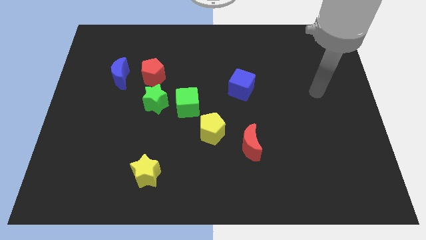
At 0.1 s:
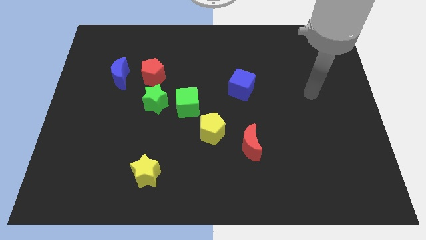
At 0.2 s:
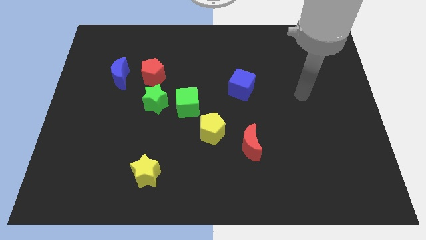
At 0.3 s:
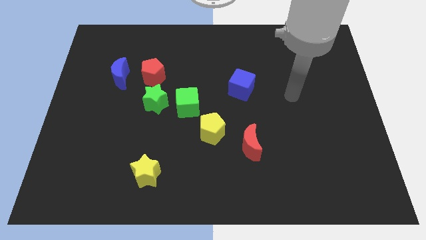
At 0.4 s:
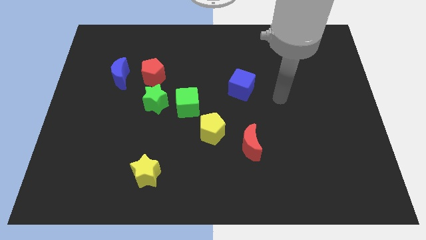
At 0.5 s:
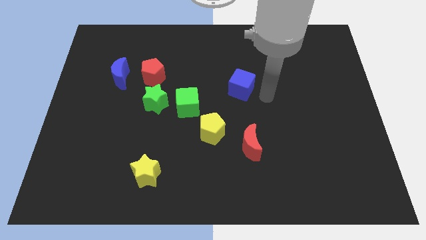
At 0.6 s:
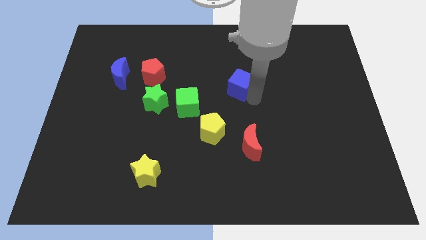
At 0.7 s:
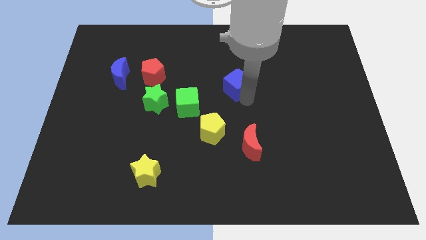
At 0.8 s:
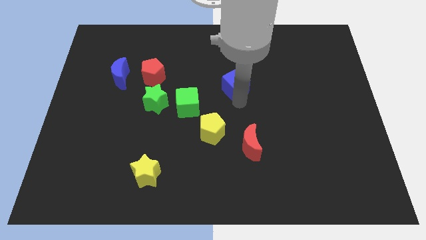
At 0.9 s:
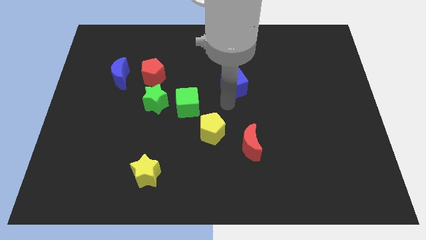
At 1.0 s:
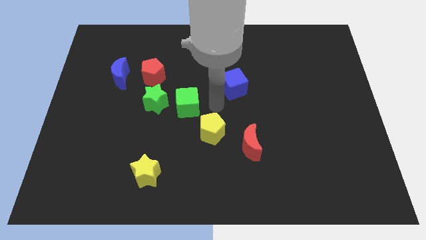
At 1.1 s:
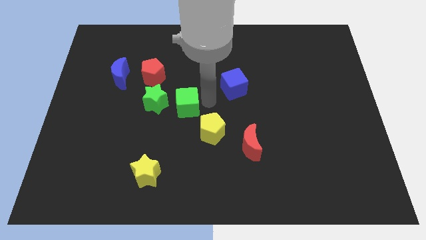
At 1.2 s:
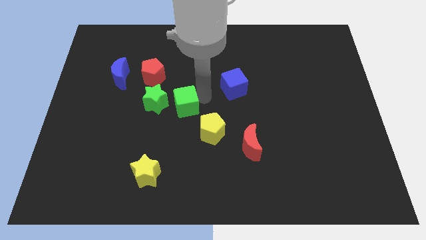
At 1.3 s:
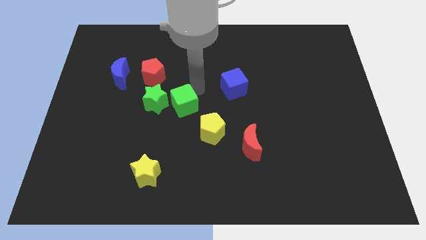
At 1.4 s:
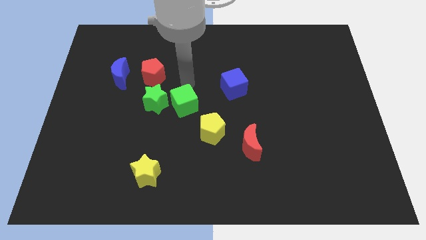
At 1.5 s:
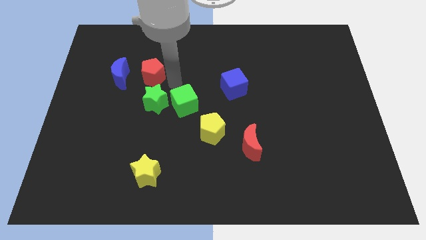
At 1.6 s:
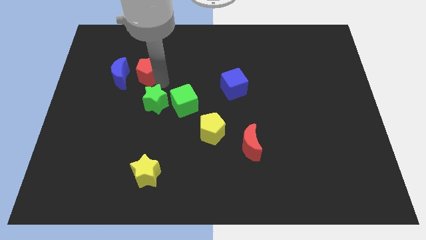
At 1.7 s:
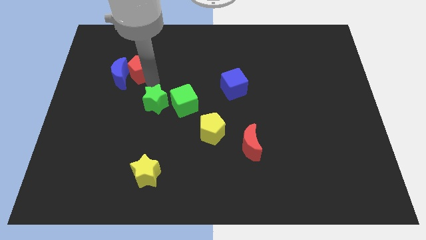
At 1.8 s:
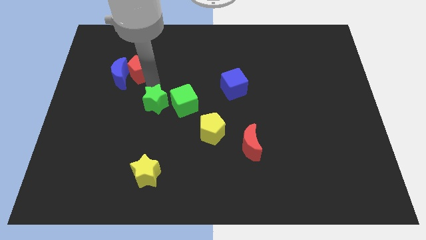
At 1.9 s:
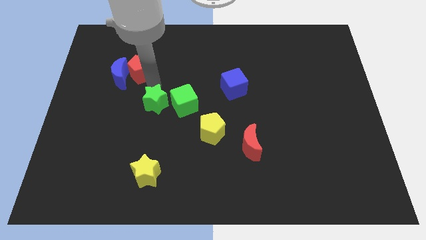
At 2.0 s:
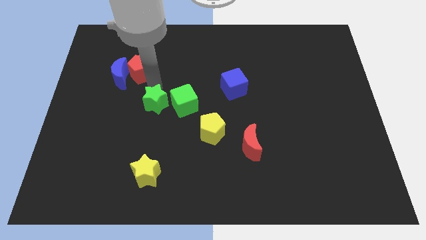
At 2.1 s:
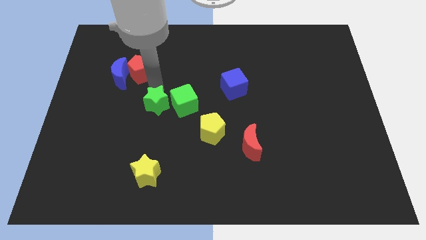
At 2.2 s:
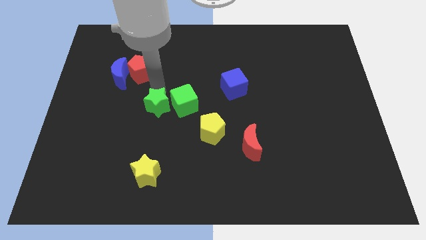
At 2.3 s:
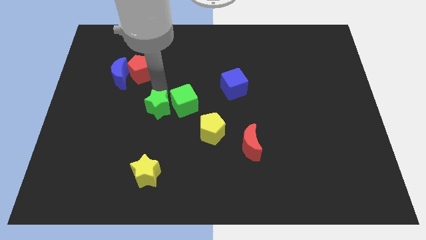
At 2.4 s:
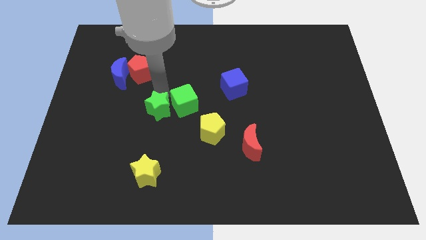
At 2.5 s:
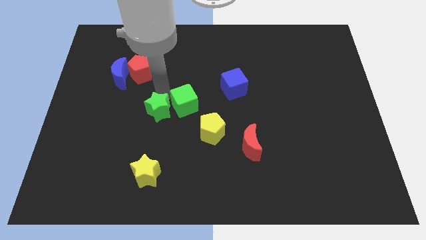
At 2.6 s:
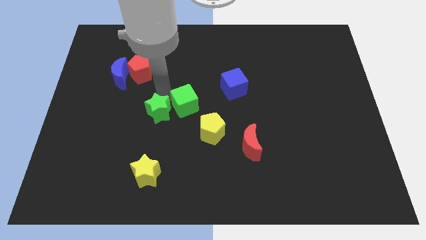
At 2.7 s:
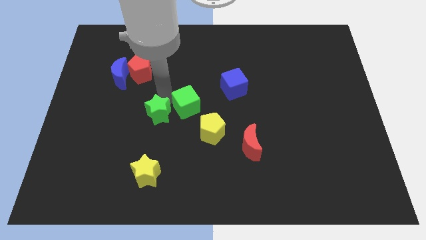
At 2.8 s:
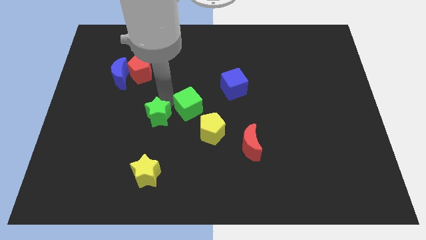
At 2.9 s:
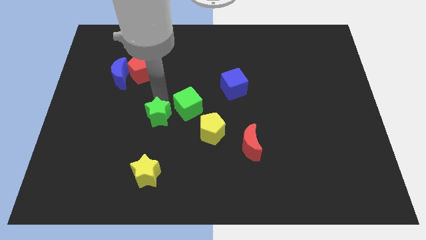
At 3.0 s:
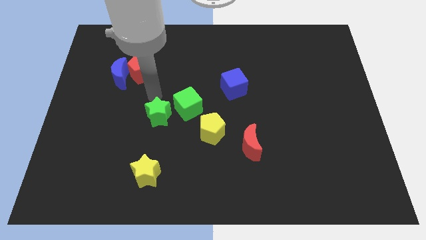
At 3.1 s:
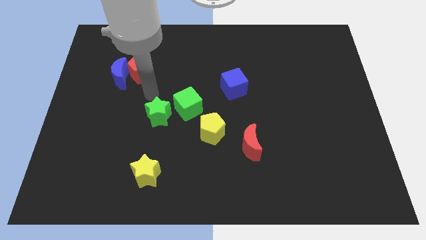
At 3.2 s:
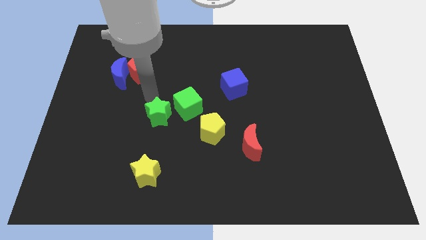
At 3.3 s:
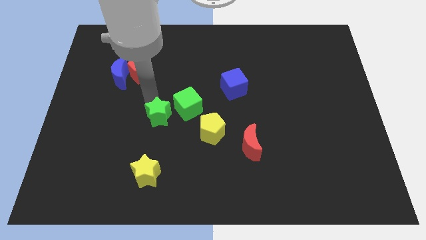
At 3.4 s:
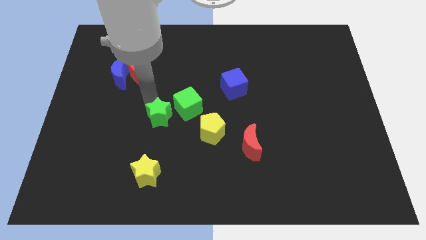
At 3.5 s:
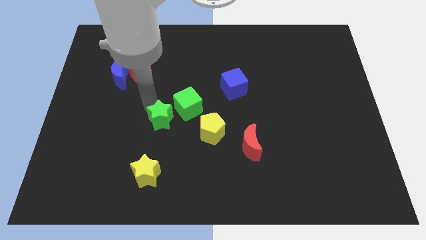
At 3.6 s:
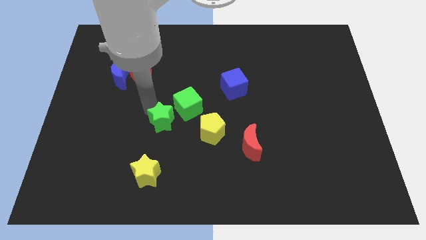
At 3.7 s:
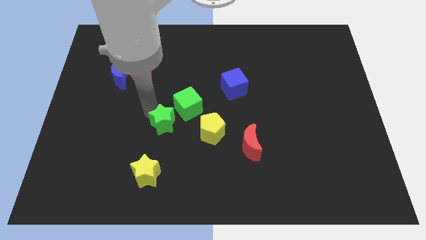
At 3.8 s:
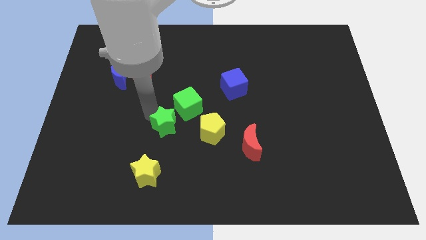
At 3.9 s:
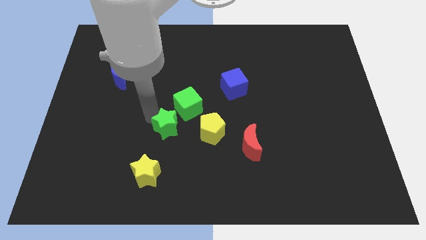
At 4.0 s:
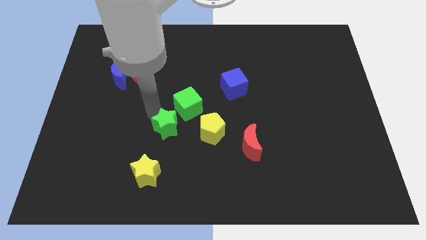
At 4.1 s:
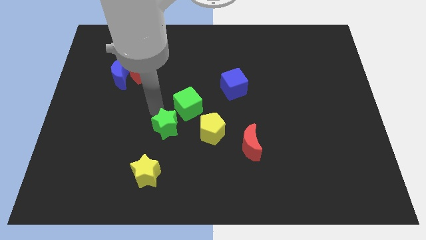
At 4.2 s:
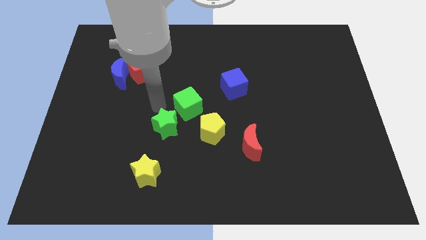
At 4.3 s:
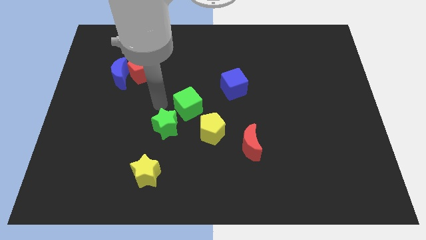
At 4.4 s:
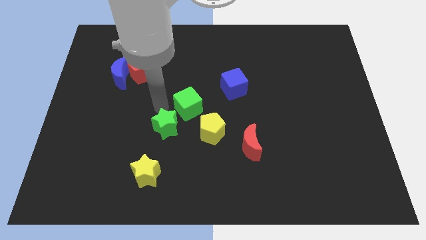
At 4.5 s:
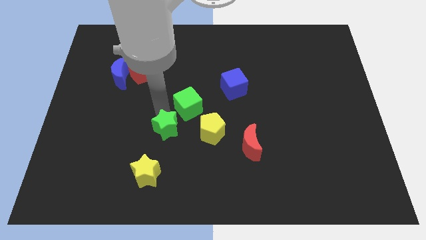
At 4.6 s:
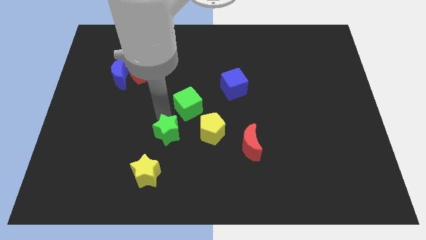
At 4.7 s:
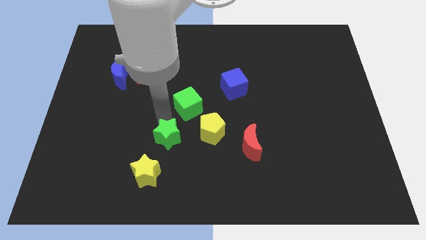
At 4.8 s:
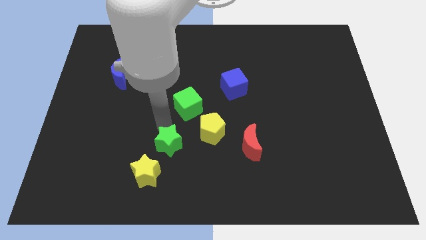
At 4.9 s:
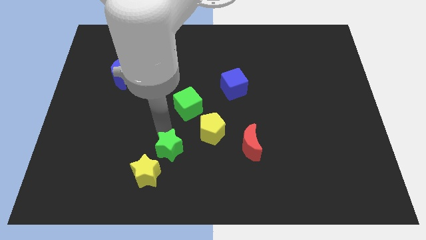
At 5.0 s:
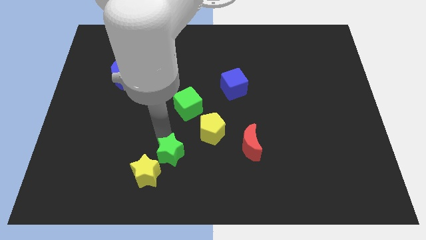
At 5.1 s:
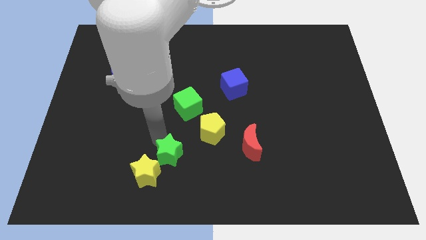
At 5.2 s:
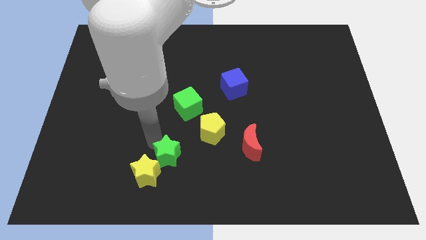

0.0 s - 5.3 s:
slide the green star right of the yellow star

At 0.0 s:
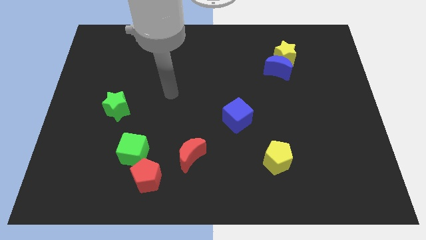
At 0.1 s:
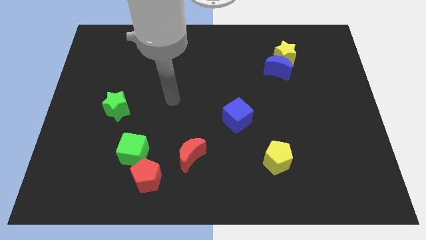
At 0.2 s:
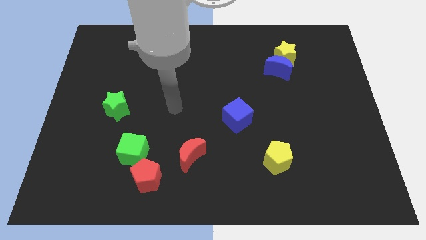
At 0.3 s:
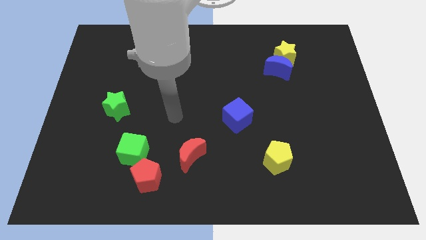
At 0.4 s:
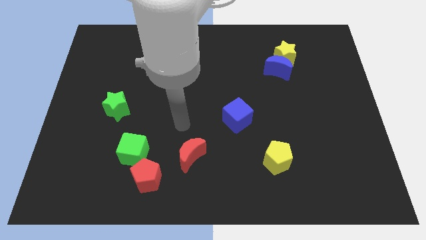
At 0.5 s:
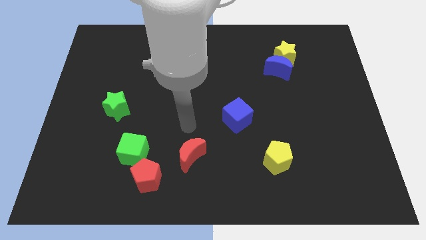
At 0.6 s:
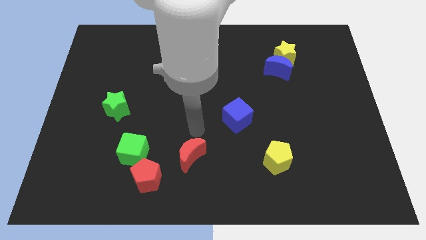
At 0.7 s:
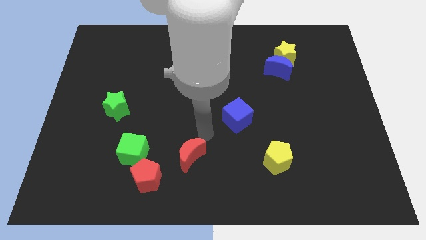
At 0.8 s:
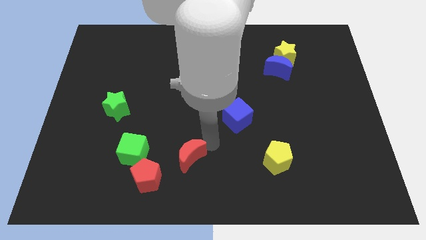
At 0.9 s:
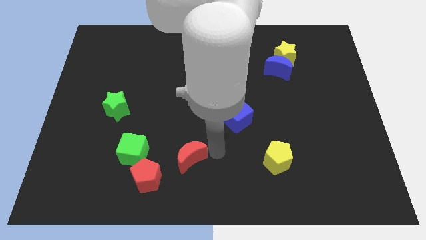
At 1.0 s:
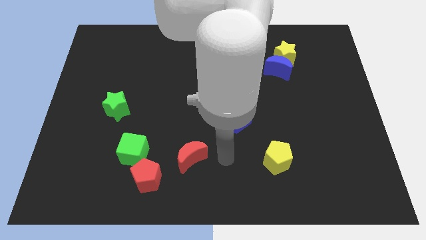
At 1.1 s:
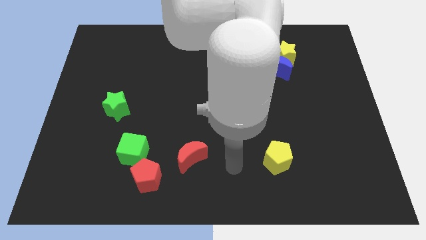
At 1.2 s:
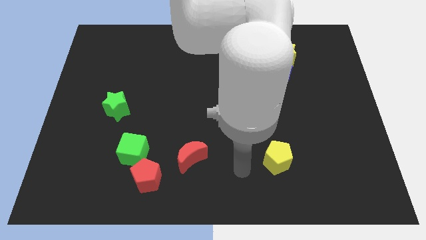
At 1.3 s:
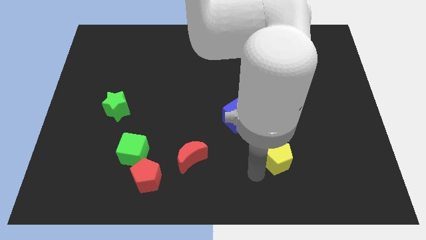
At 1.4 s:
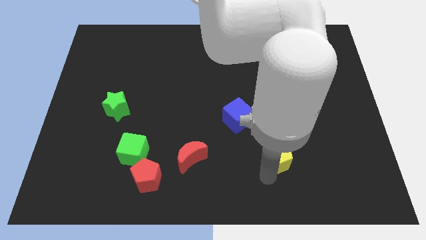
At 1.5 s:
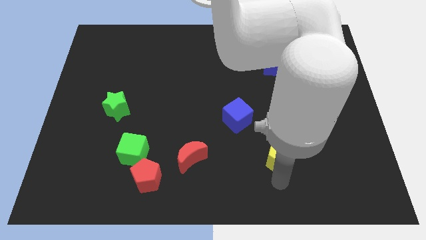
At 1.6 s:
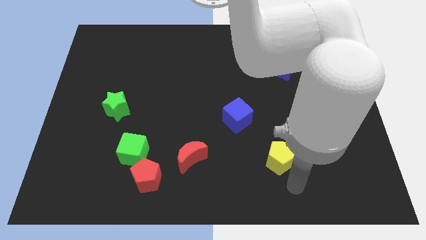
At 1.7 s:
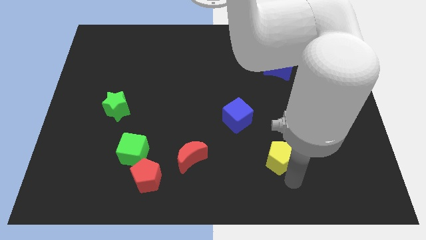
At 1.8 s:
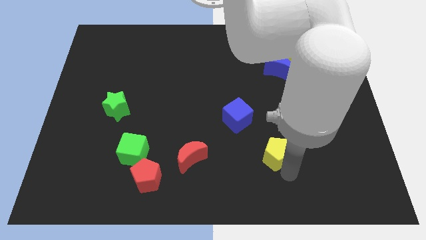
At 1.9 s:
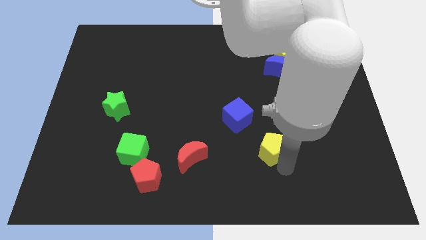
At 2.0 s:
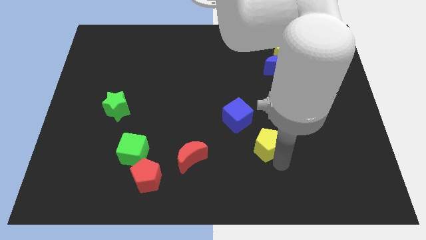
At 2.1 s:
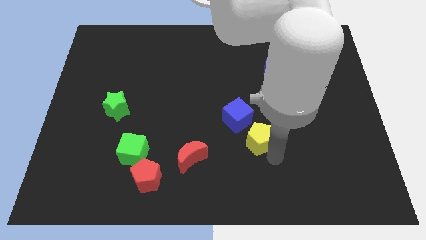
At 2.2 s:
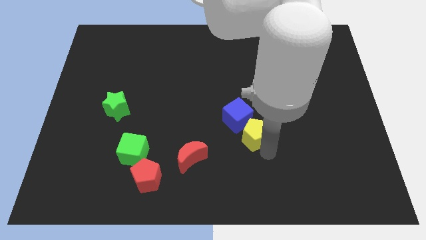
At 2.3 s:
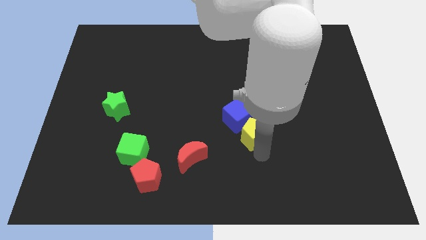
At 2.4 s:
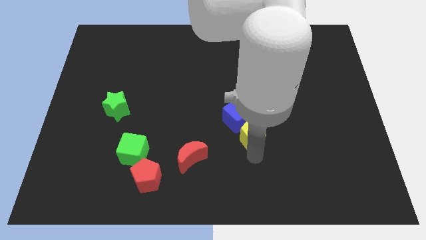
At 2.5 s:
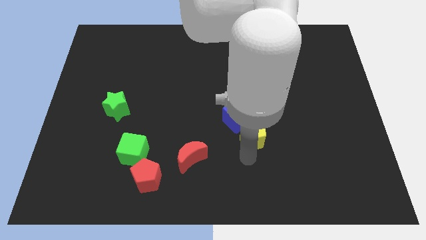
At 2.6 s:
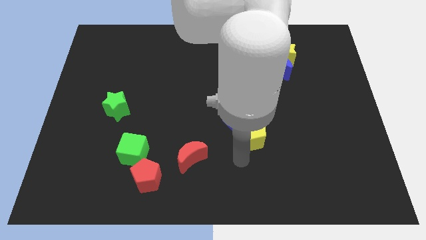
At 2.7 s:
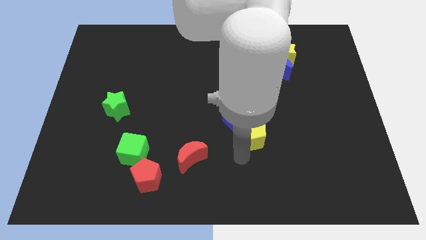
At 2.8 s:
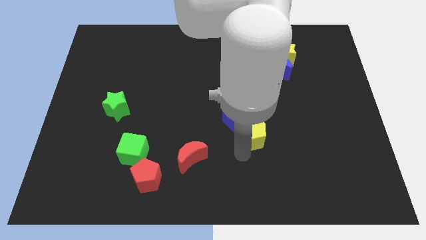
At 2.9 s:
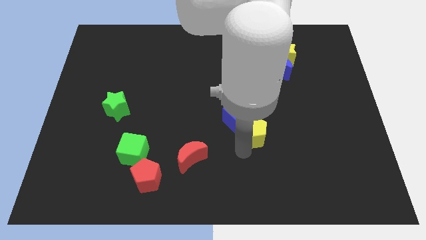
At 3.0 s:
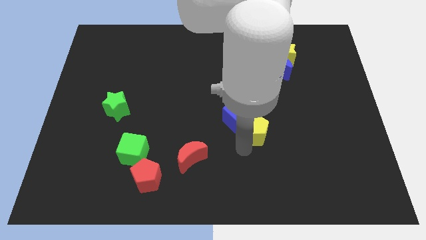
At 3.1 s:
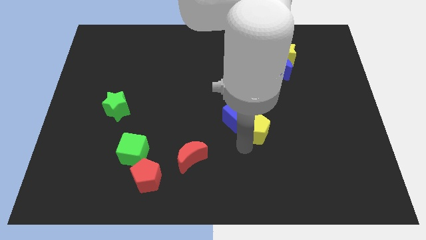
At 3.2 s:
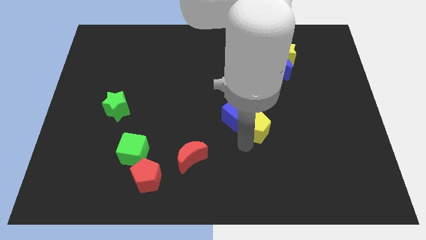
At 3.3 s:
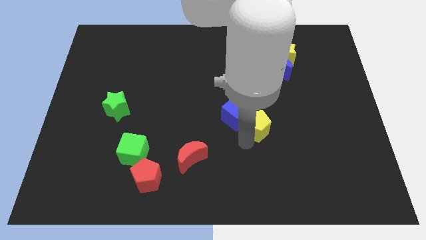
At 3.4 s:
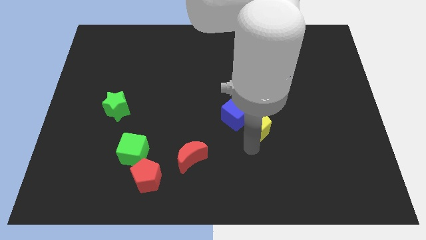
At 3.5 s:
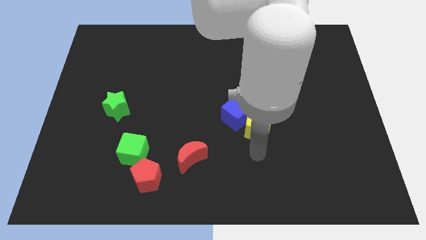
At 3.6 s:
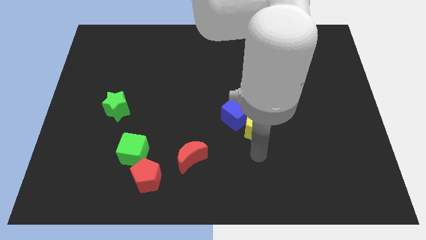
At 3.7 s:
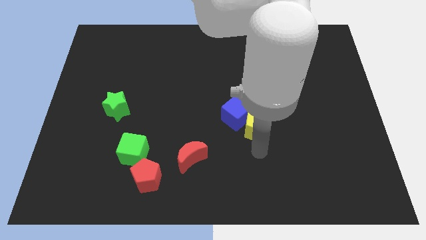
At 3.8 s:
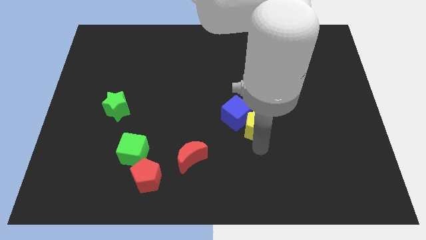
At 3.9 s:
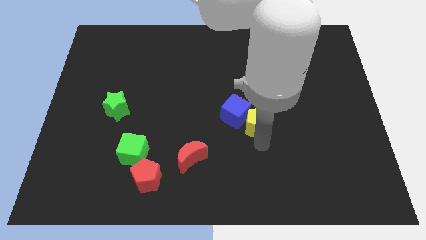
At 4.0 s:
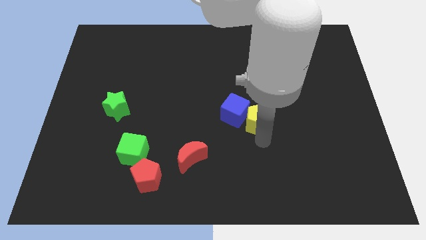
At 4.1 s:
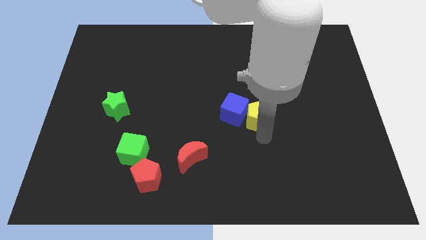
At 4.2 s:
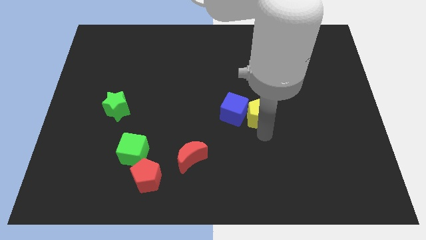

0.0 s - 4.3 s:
push the yellow pentagon to the top right side of the blue cube
